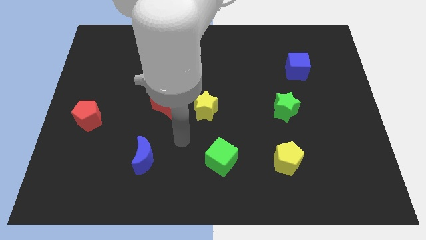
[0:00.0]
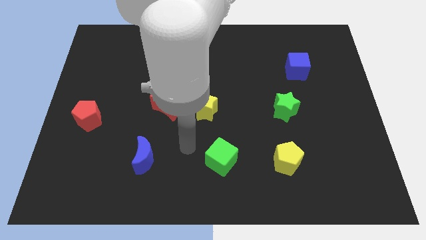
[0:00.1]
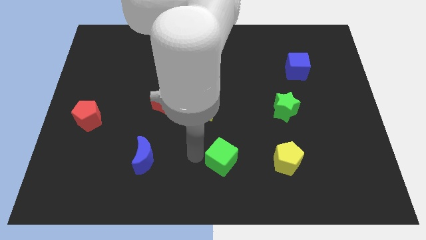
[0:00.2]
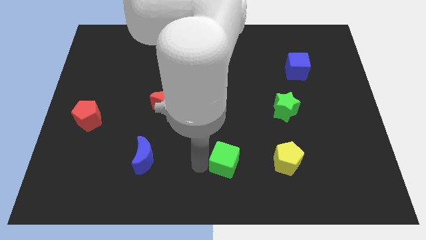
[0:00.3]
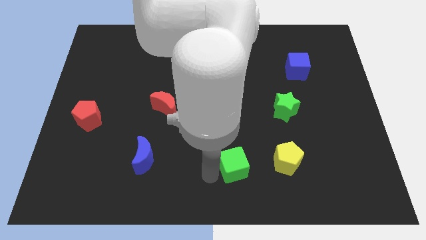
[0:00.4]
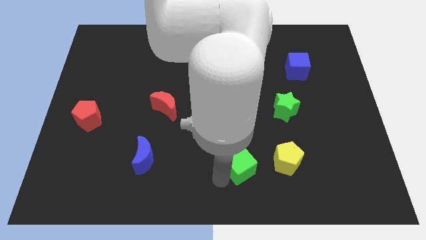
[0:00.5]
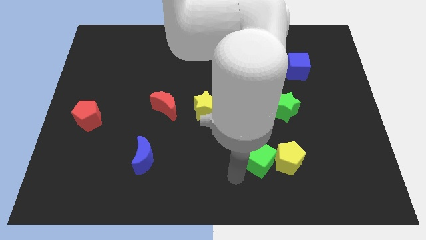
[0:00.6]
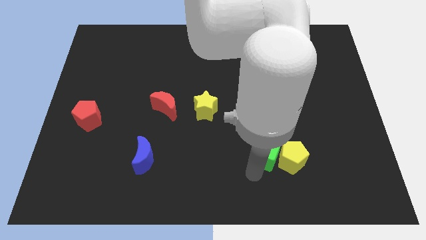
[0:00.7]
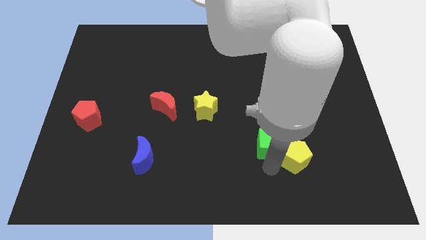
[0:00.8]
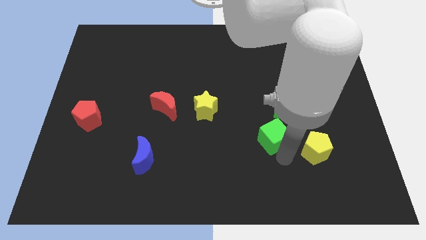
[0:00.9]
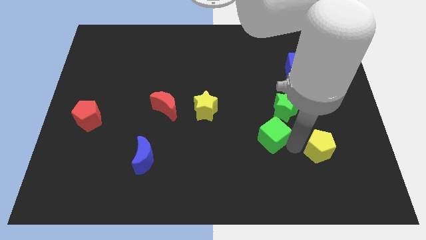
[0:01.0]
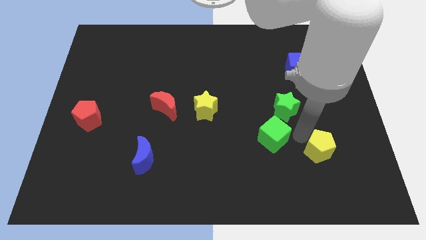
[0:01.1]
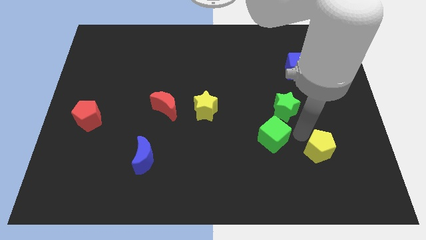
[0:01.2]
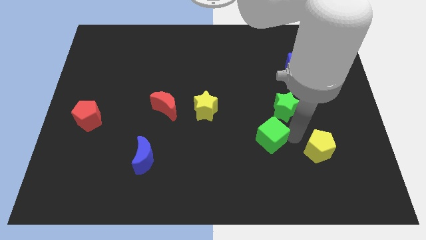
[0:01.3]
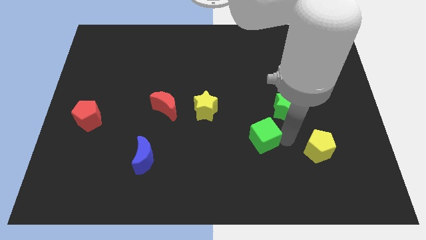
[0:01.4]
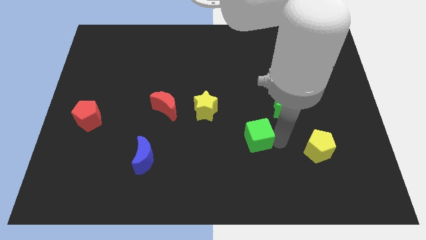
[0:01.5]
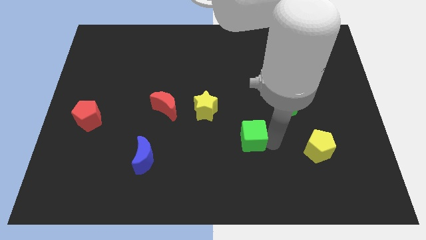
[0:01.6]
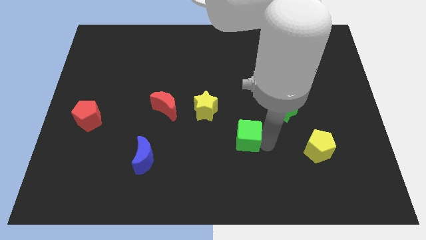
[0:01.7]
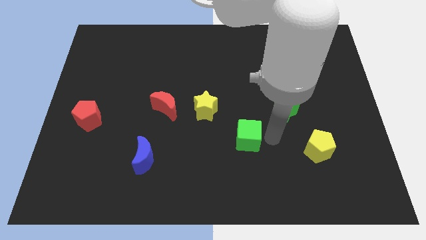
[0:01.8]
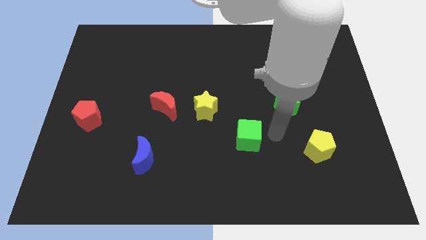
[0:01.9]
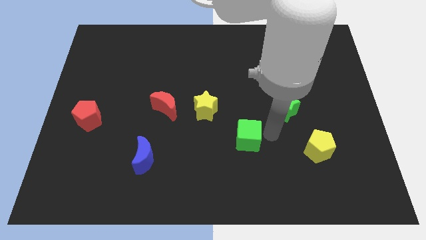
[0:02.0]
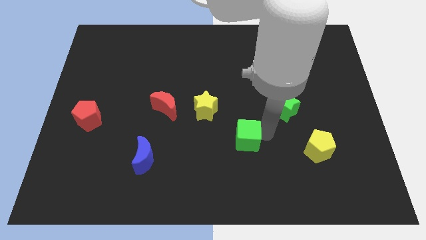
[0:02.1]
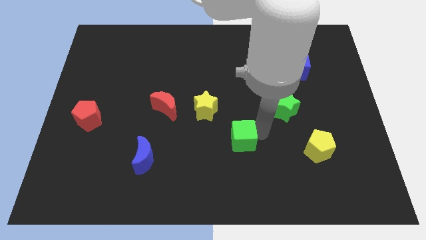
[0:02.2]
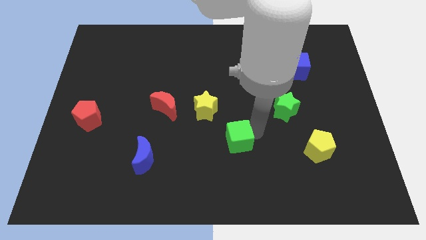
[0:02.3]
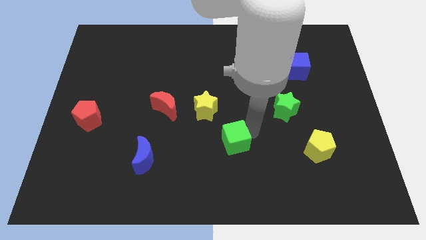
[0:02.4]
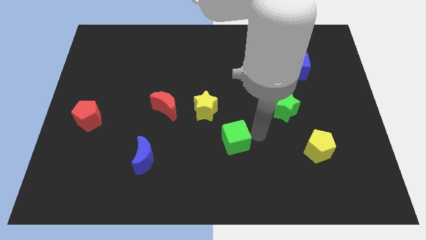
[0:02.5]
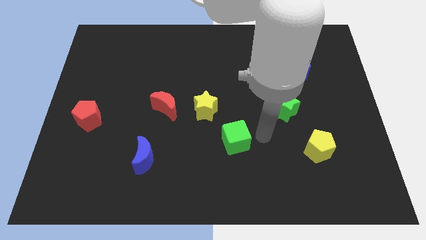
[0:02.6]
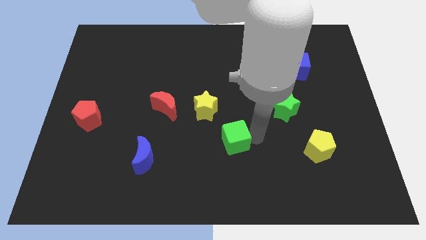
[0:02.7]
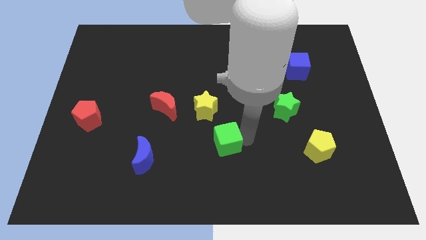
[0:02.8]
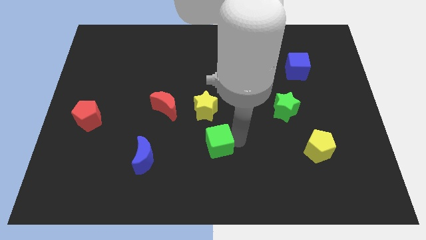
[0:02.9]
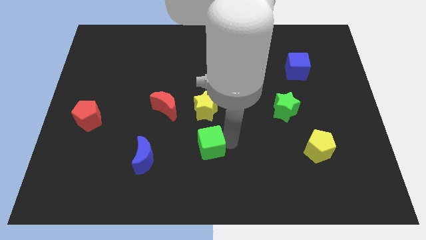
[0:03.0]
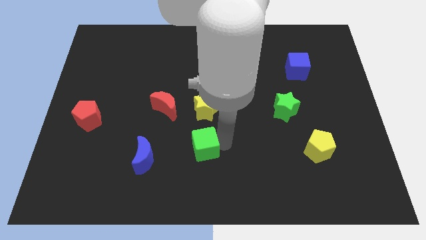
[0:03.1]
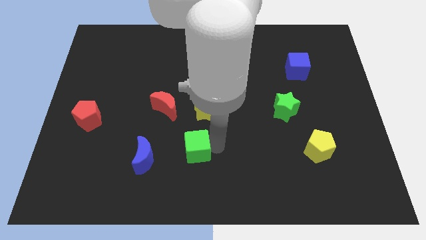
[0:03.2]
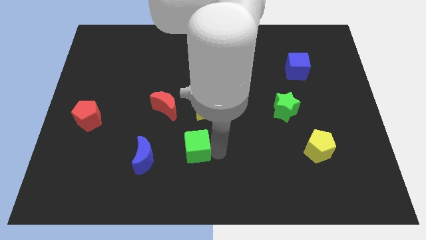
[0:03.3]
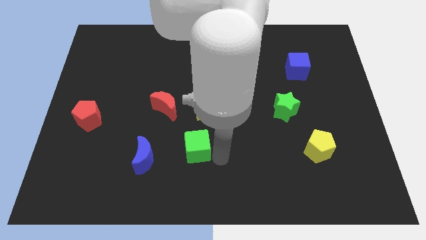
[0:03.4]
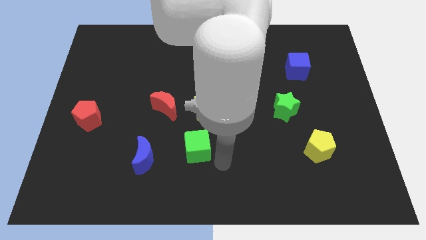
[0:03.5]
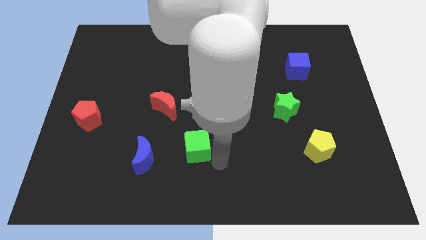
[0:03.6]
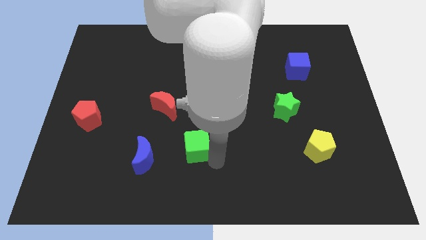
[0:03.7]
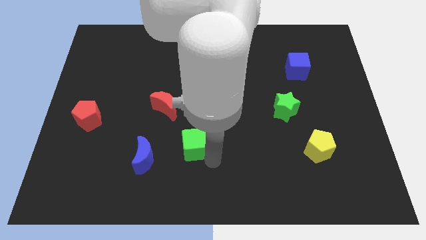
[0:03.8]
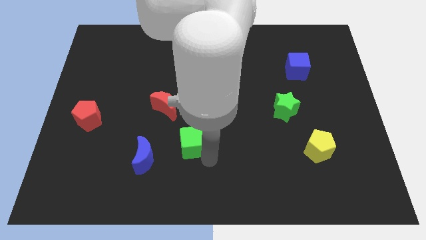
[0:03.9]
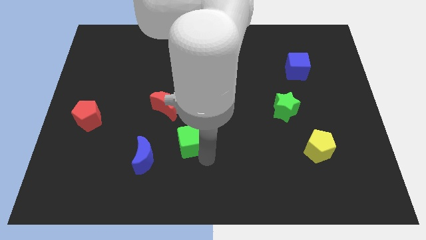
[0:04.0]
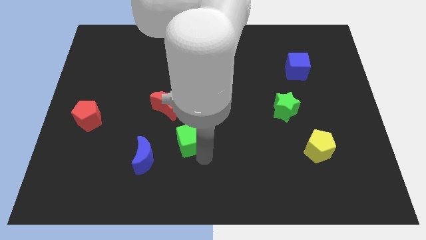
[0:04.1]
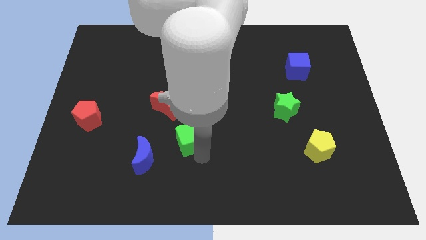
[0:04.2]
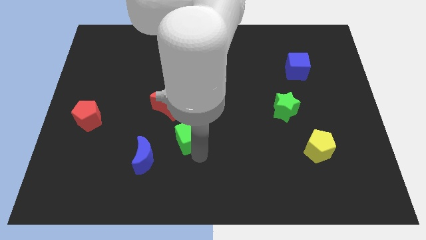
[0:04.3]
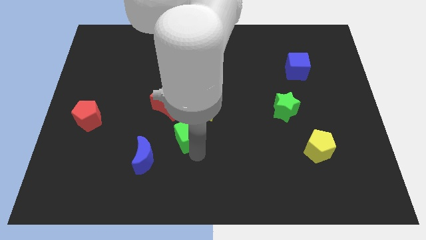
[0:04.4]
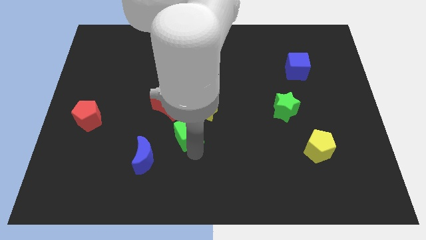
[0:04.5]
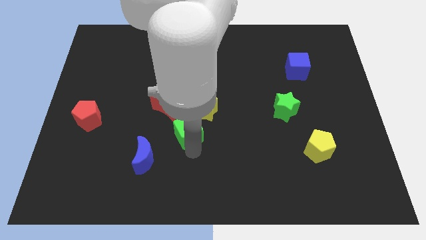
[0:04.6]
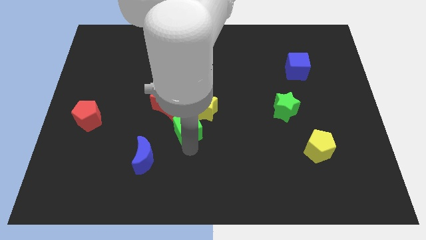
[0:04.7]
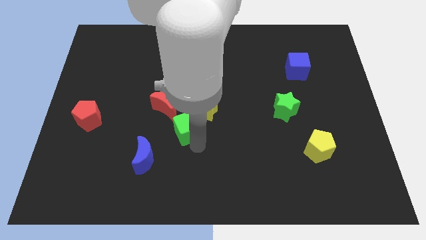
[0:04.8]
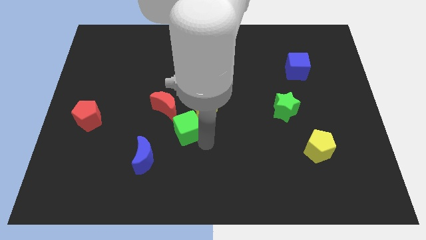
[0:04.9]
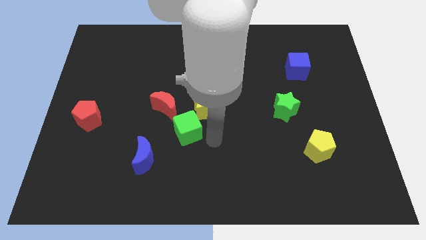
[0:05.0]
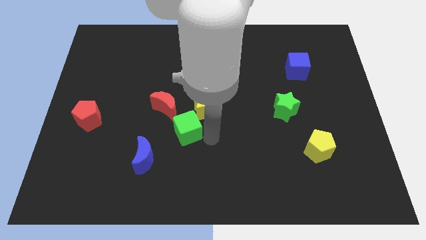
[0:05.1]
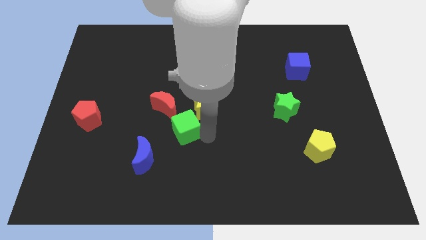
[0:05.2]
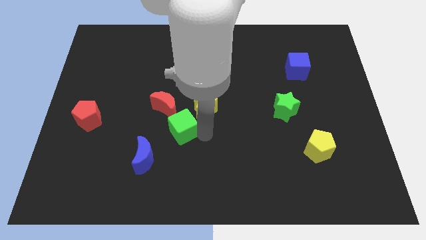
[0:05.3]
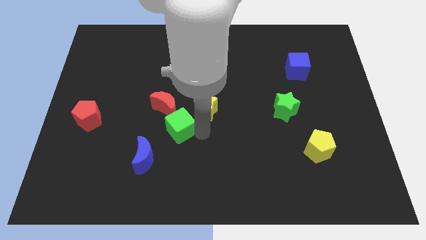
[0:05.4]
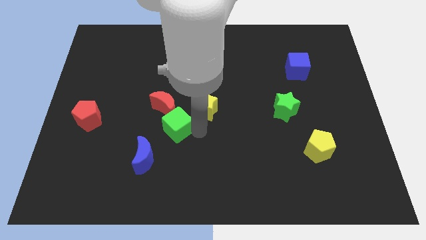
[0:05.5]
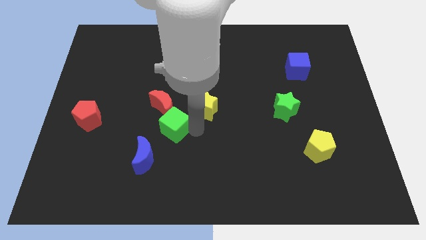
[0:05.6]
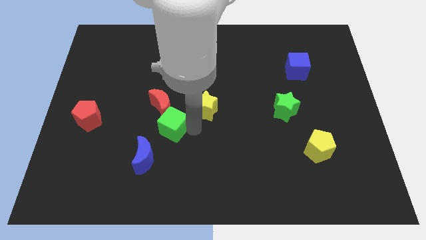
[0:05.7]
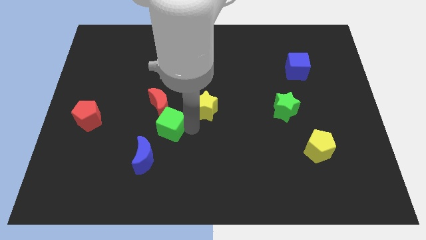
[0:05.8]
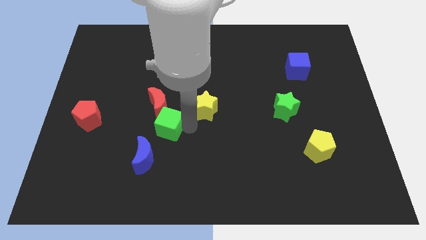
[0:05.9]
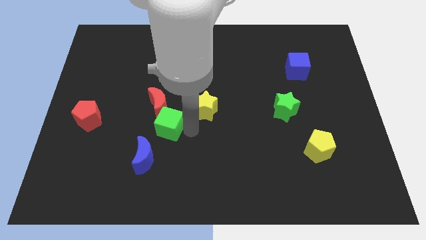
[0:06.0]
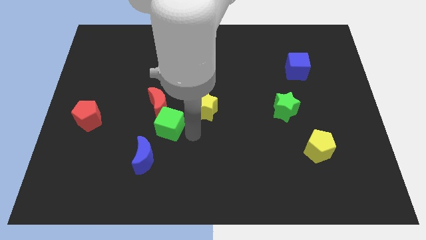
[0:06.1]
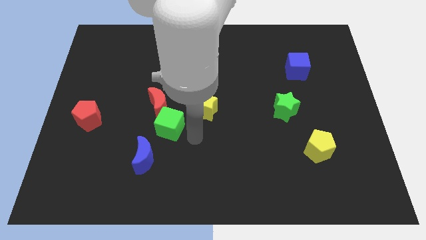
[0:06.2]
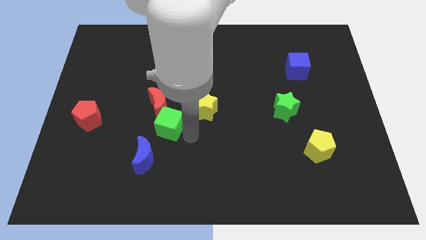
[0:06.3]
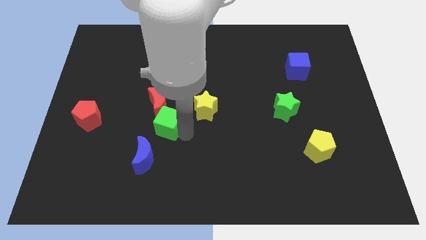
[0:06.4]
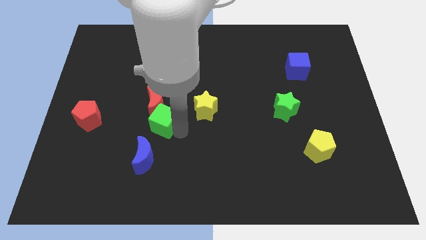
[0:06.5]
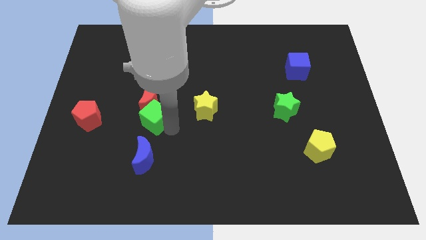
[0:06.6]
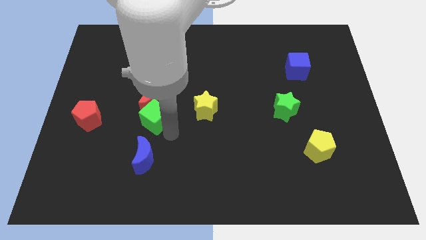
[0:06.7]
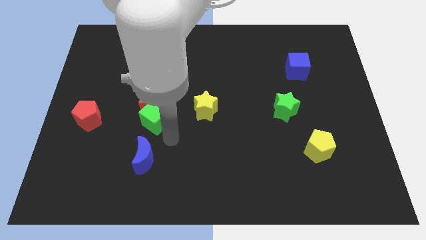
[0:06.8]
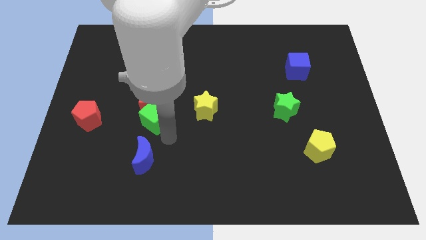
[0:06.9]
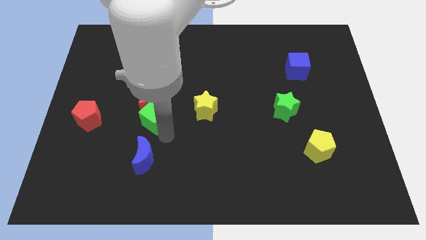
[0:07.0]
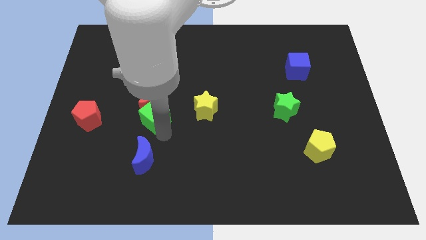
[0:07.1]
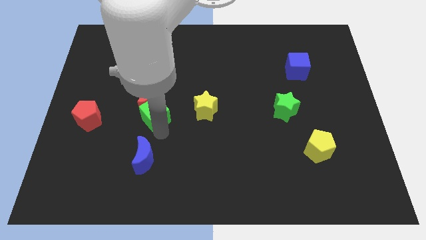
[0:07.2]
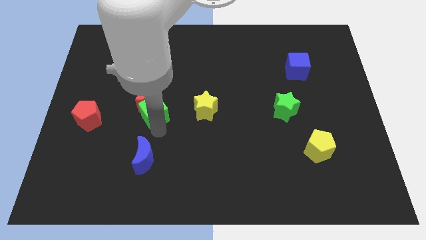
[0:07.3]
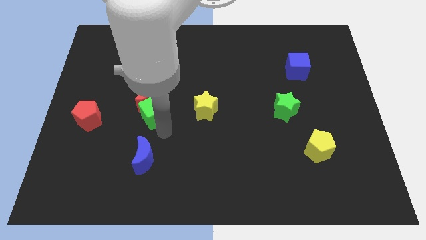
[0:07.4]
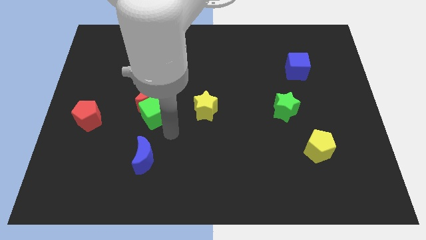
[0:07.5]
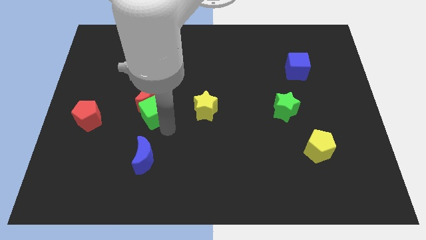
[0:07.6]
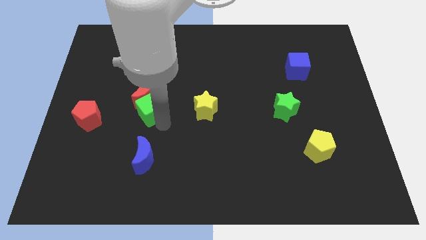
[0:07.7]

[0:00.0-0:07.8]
move the green cube upwards and to the left
